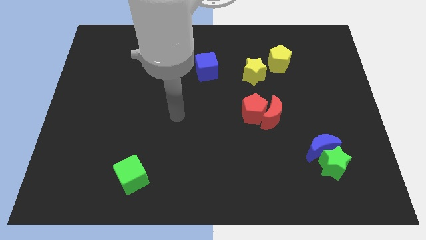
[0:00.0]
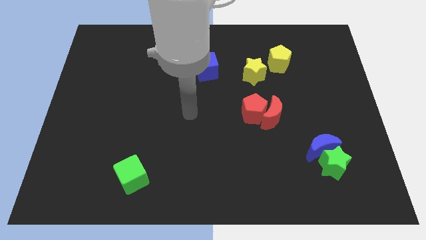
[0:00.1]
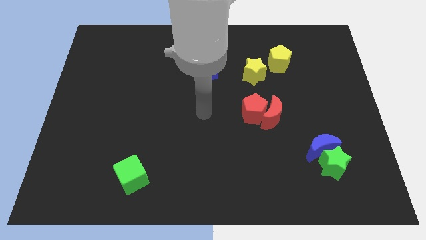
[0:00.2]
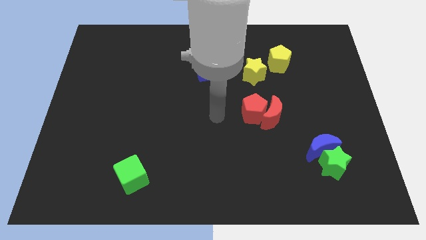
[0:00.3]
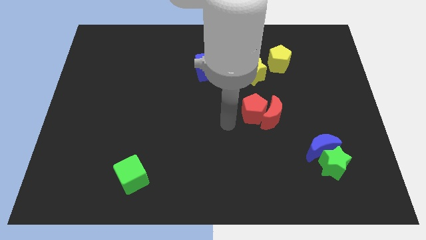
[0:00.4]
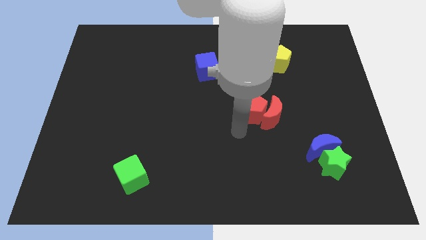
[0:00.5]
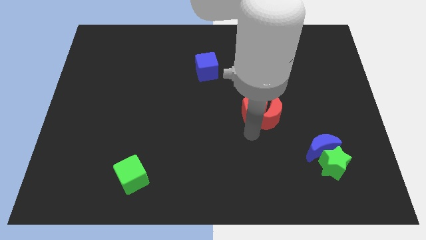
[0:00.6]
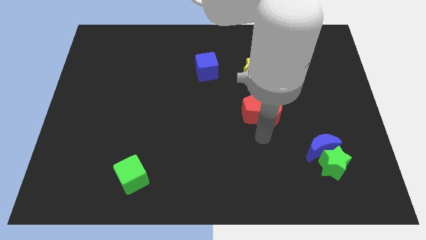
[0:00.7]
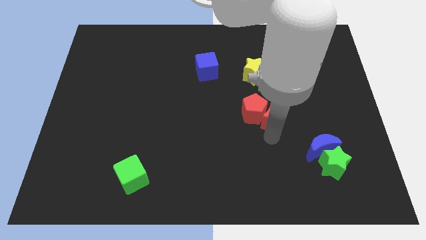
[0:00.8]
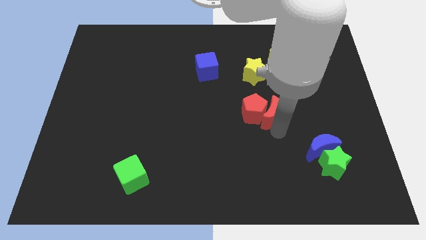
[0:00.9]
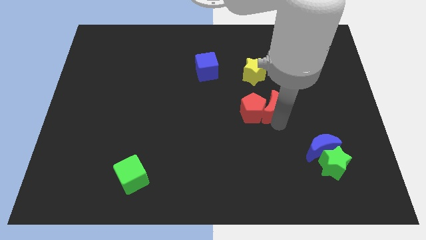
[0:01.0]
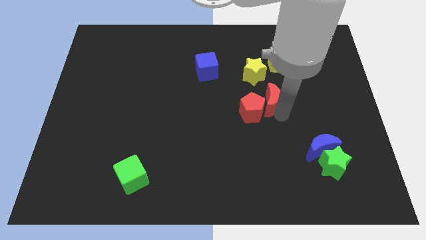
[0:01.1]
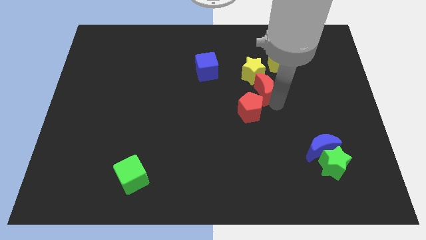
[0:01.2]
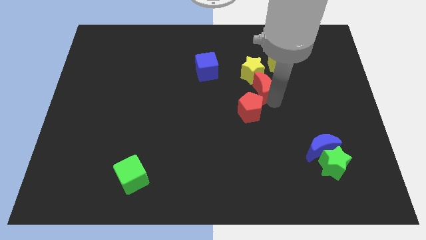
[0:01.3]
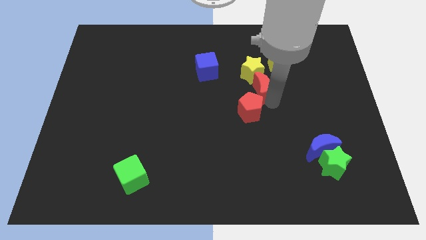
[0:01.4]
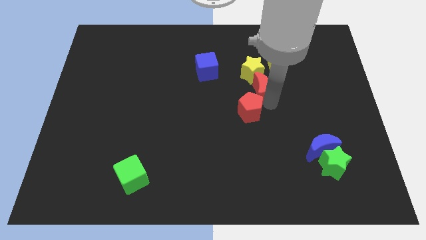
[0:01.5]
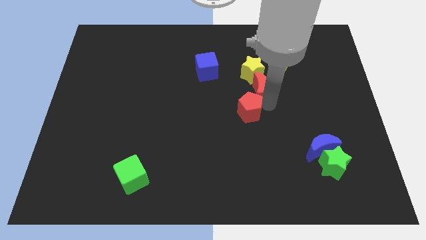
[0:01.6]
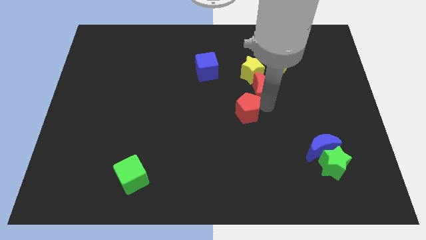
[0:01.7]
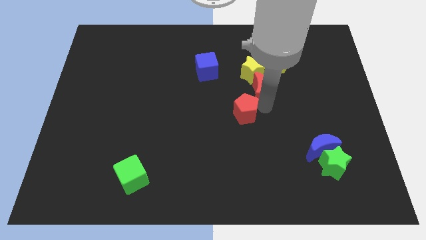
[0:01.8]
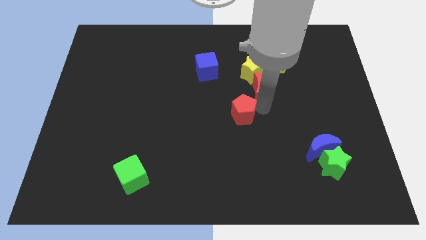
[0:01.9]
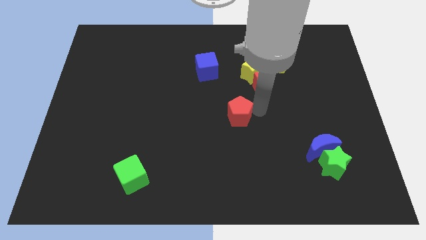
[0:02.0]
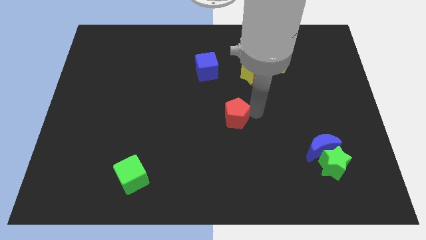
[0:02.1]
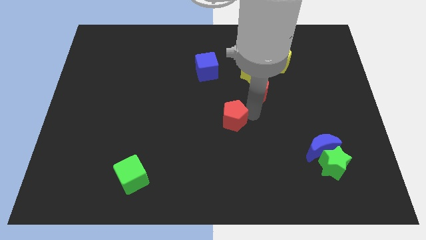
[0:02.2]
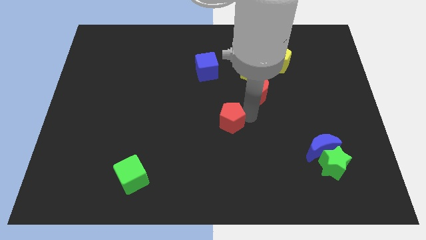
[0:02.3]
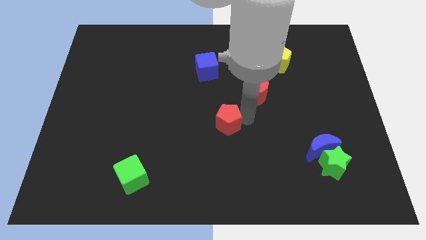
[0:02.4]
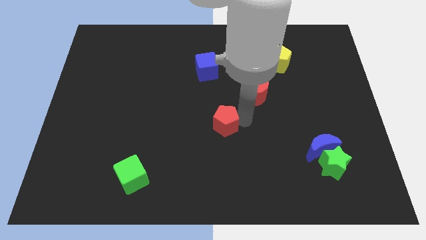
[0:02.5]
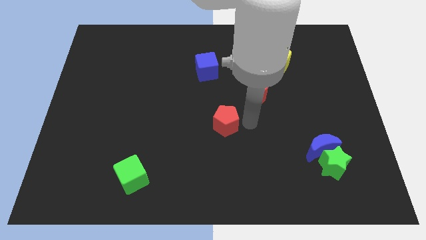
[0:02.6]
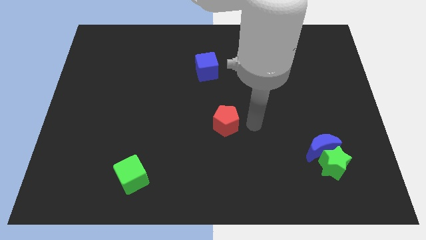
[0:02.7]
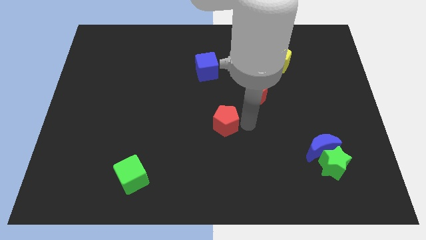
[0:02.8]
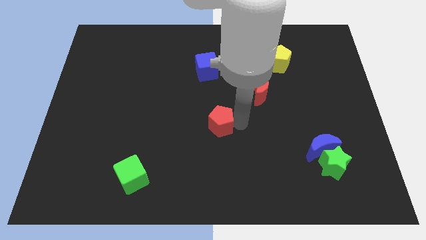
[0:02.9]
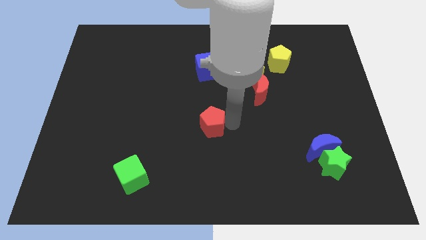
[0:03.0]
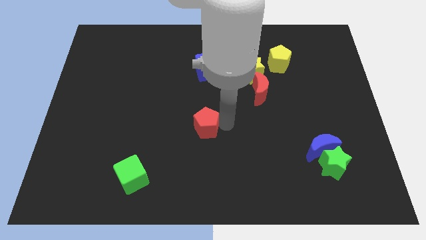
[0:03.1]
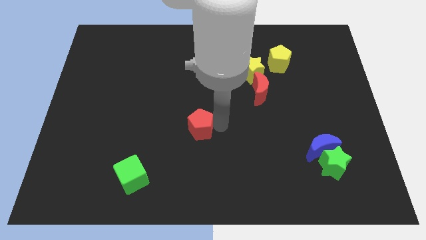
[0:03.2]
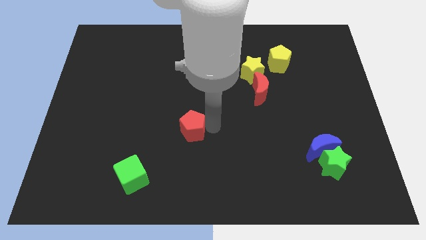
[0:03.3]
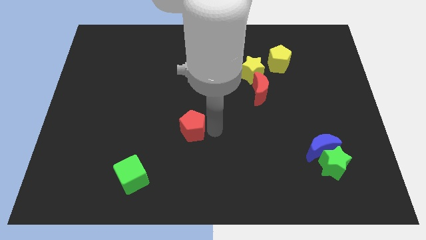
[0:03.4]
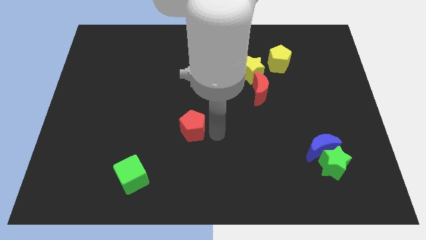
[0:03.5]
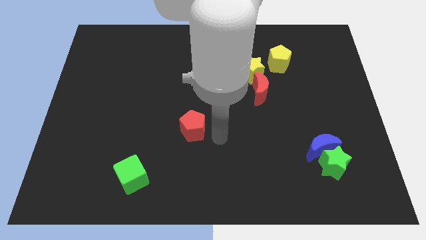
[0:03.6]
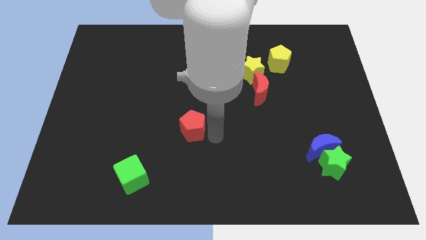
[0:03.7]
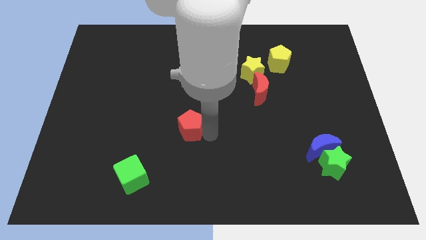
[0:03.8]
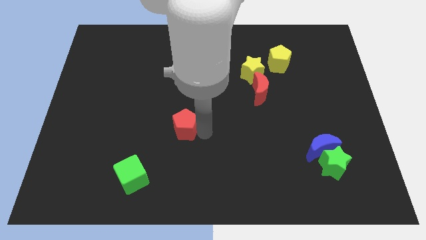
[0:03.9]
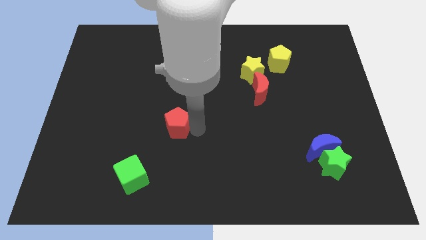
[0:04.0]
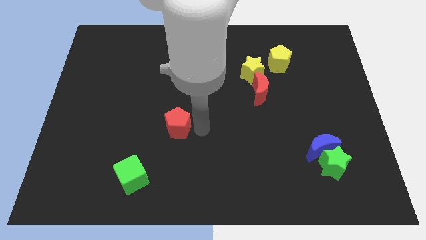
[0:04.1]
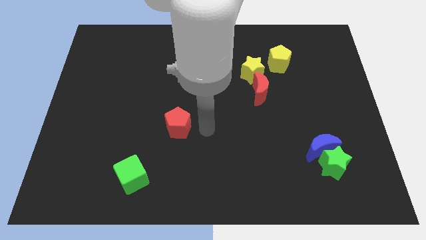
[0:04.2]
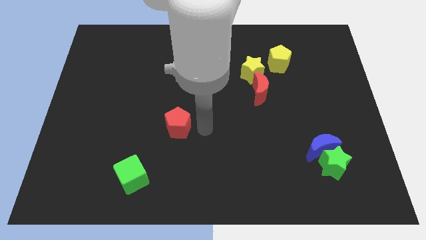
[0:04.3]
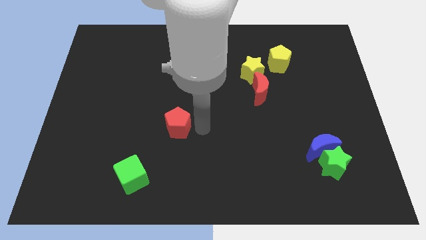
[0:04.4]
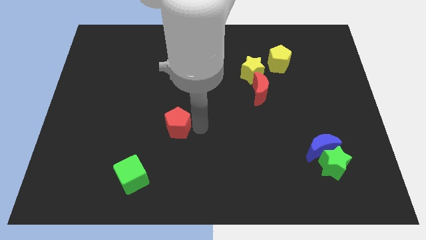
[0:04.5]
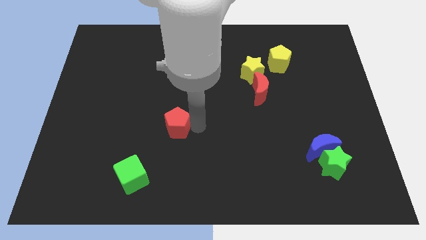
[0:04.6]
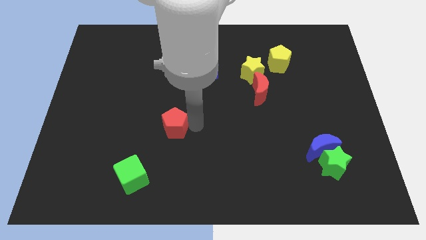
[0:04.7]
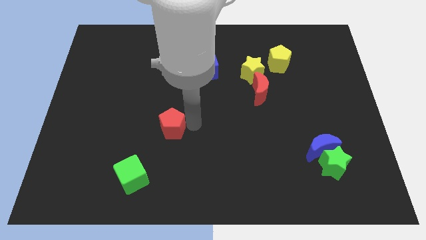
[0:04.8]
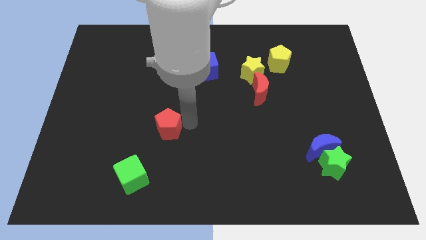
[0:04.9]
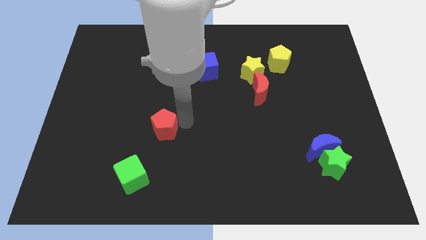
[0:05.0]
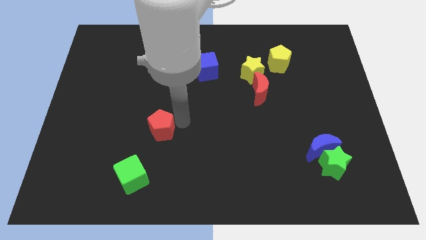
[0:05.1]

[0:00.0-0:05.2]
move the red pentagon left

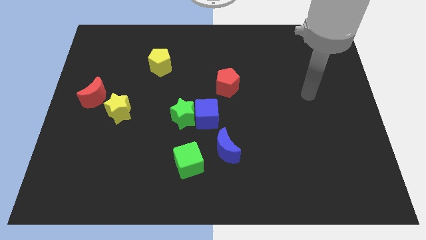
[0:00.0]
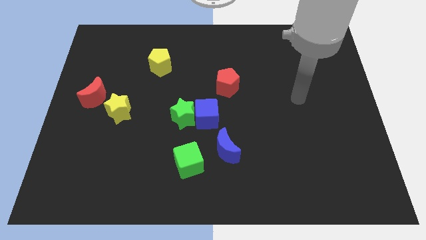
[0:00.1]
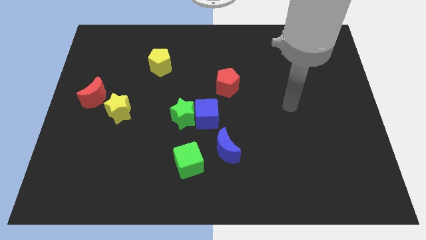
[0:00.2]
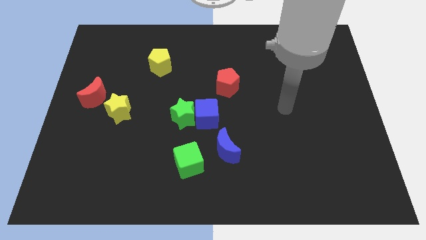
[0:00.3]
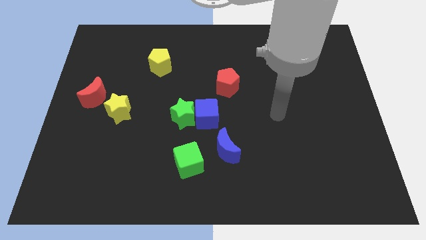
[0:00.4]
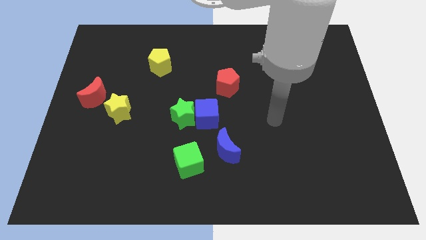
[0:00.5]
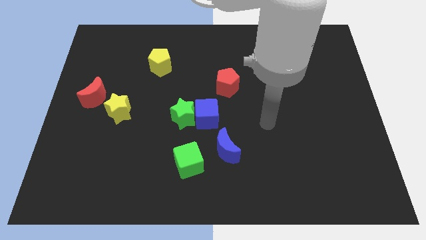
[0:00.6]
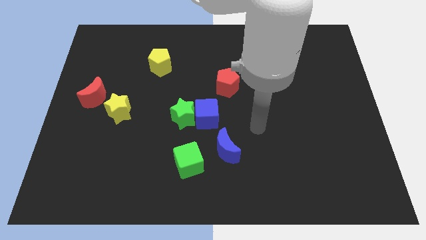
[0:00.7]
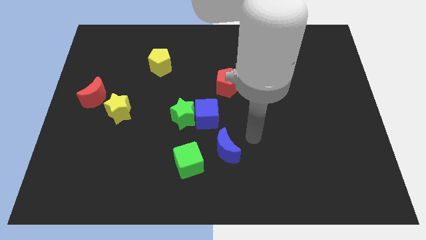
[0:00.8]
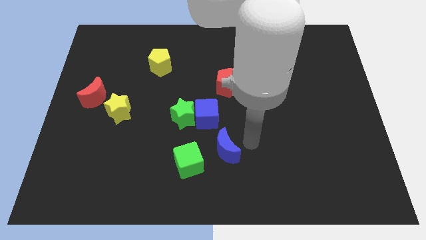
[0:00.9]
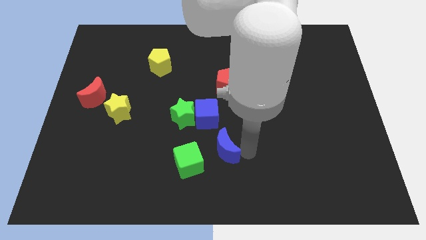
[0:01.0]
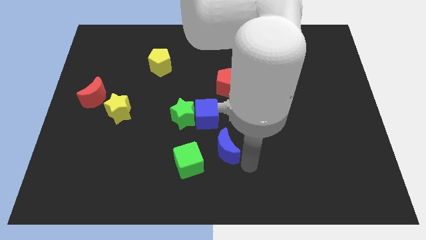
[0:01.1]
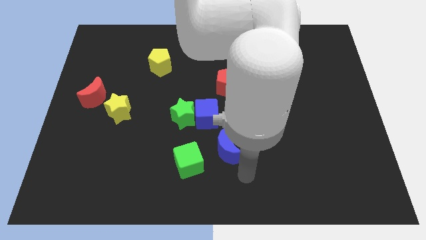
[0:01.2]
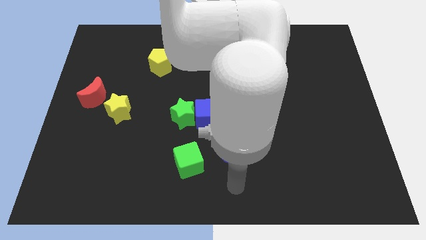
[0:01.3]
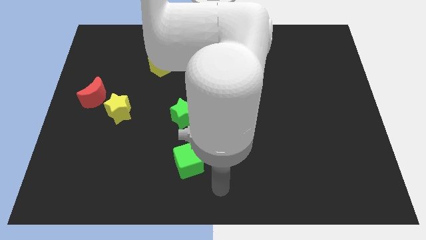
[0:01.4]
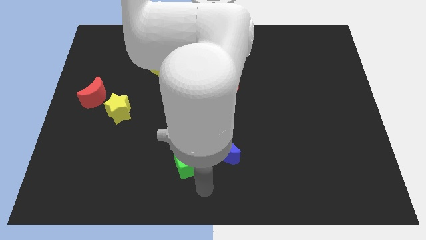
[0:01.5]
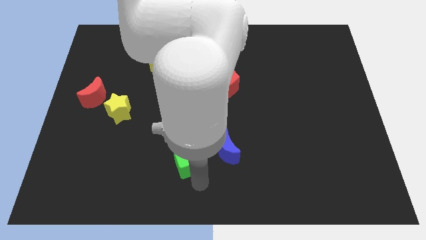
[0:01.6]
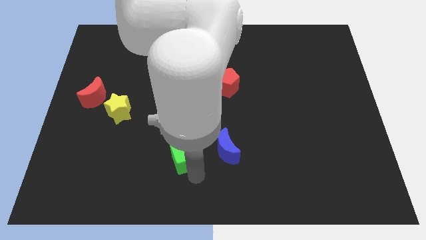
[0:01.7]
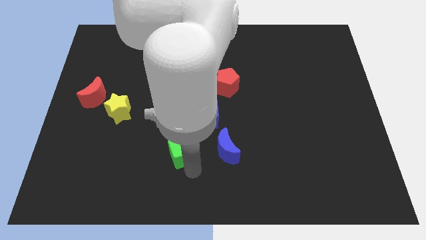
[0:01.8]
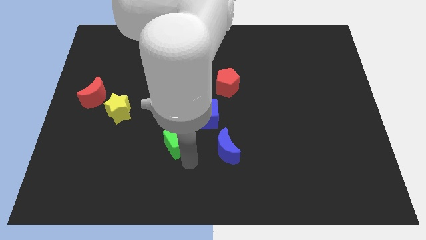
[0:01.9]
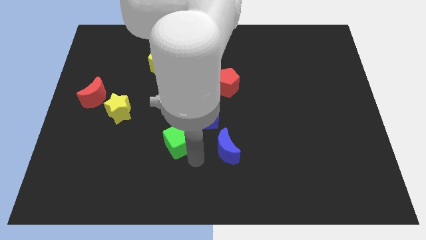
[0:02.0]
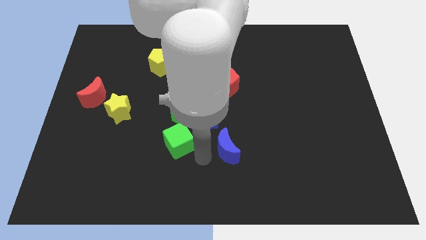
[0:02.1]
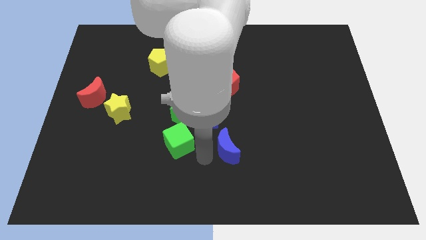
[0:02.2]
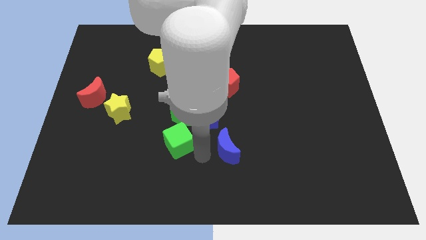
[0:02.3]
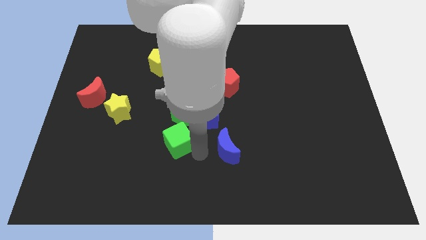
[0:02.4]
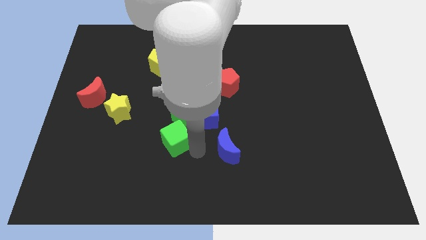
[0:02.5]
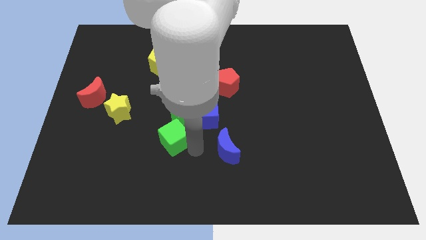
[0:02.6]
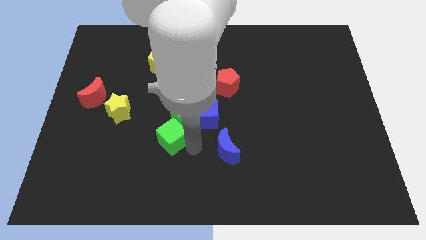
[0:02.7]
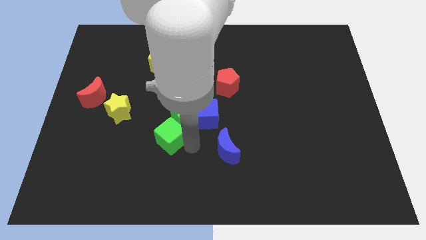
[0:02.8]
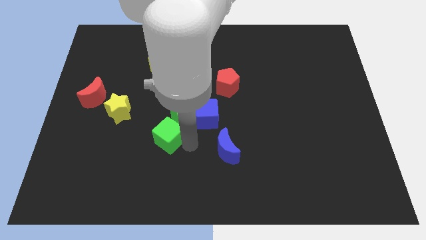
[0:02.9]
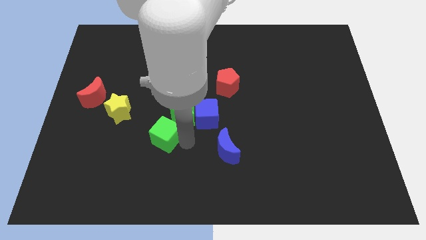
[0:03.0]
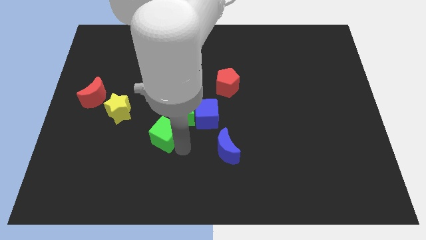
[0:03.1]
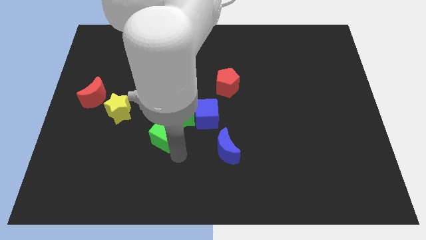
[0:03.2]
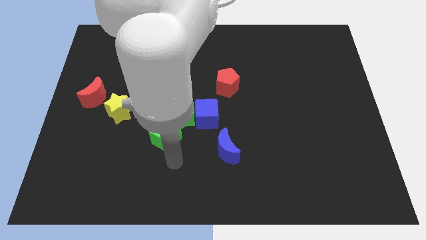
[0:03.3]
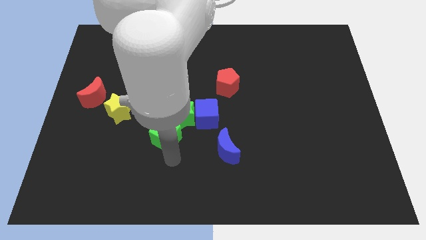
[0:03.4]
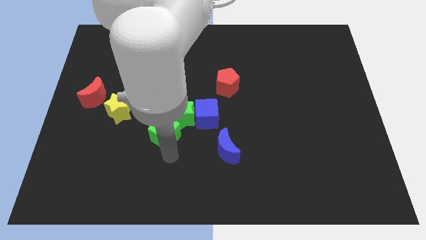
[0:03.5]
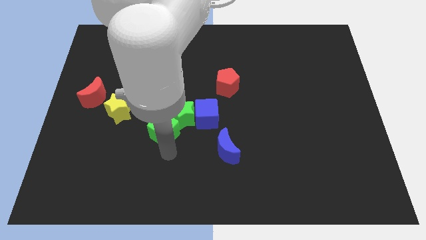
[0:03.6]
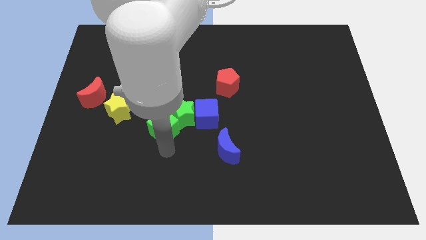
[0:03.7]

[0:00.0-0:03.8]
push the green cube a little bit upwards
